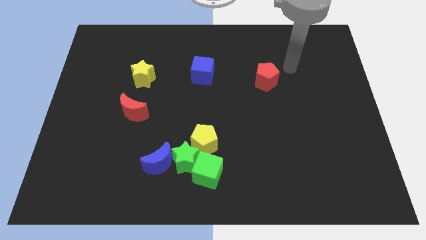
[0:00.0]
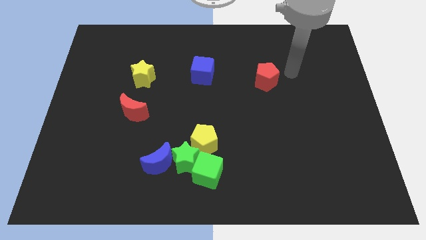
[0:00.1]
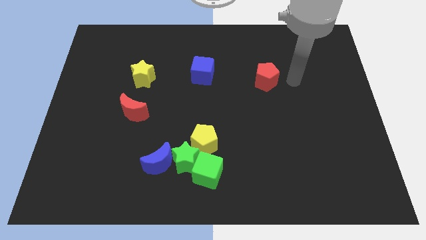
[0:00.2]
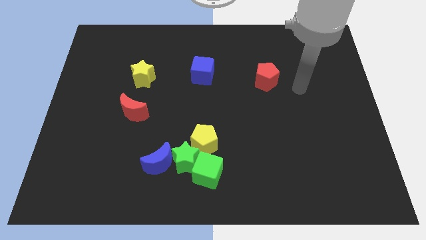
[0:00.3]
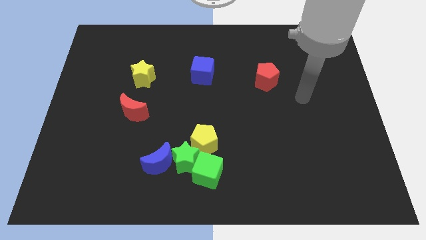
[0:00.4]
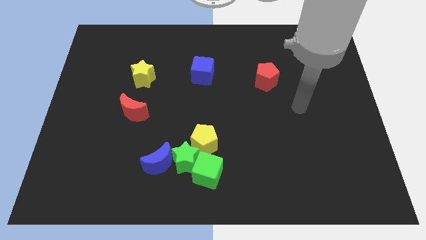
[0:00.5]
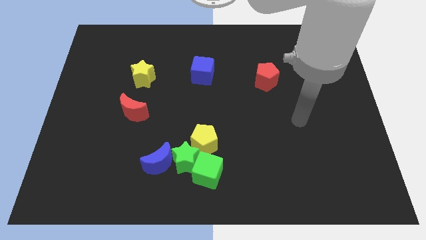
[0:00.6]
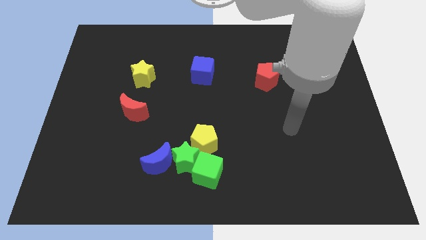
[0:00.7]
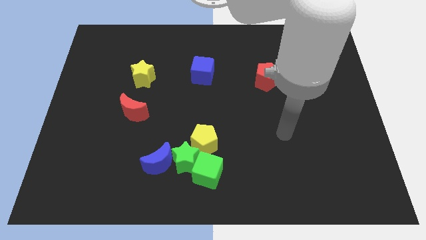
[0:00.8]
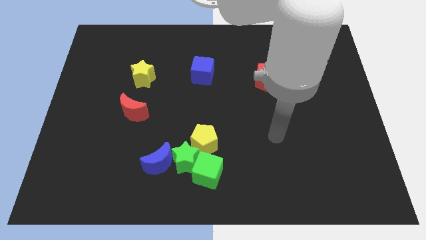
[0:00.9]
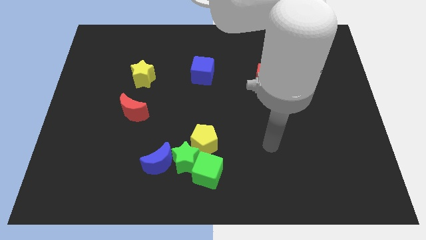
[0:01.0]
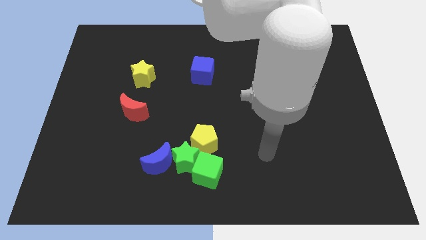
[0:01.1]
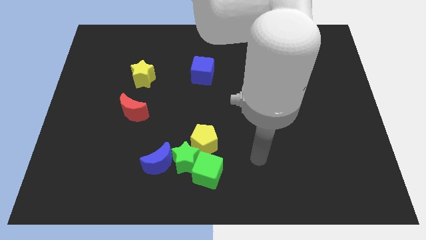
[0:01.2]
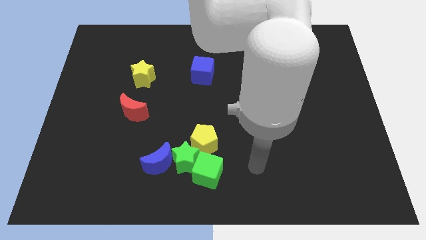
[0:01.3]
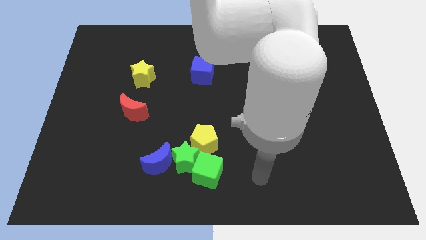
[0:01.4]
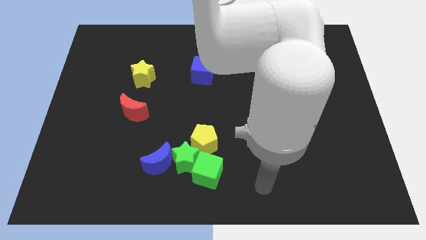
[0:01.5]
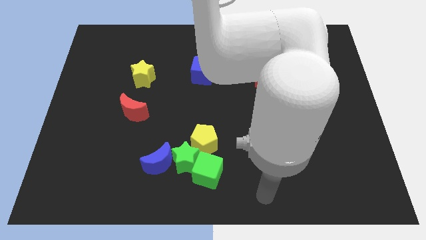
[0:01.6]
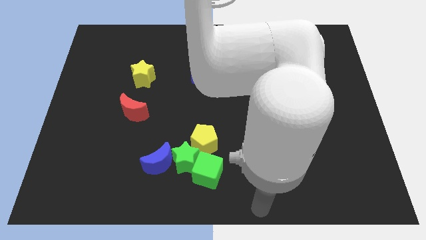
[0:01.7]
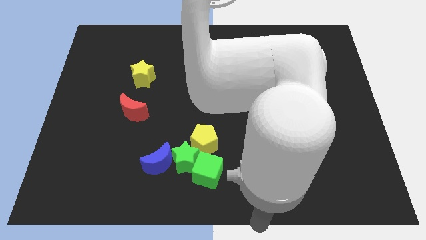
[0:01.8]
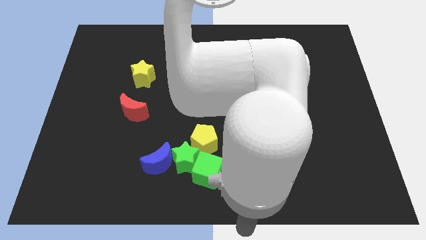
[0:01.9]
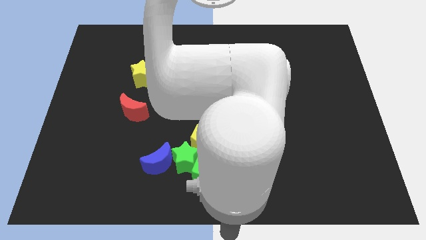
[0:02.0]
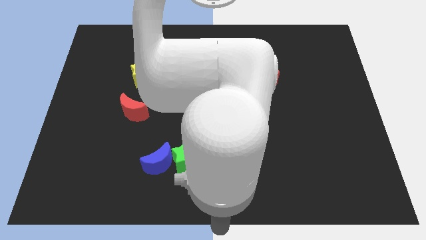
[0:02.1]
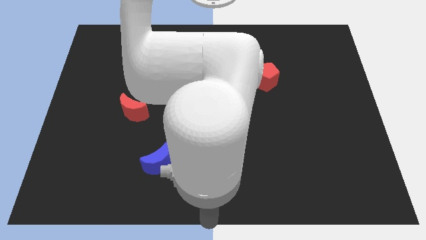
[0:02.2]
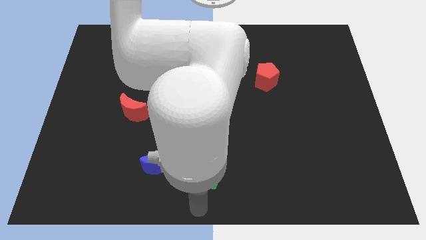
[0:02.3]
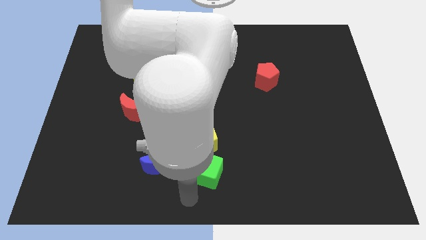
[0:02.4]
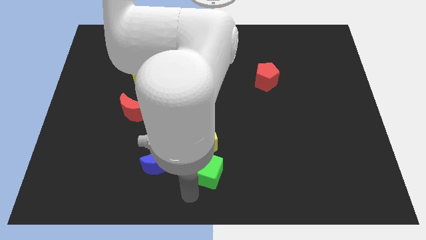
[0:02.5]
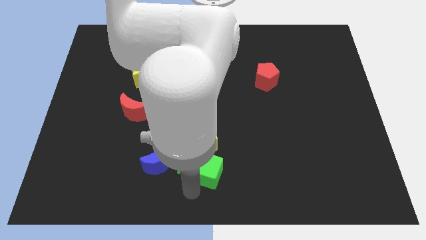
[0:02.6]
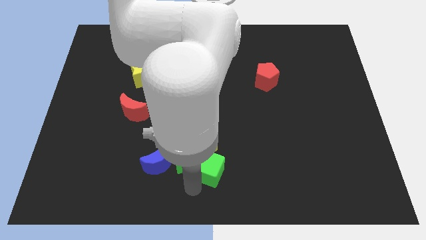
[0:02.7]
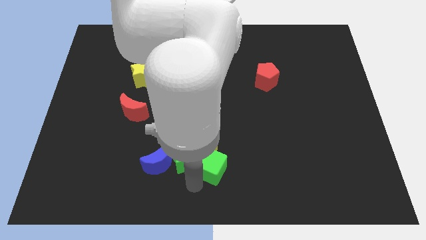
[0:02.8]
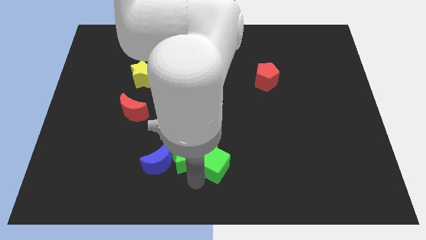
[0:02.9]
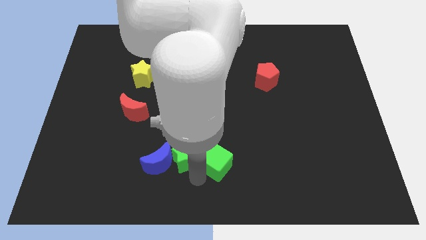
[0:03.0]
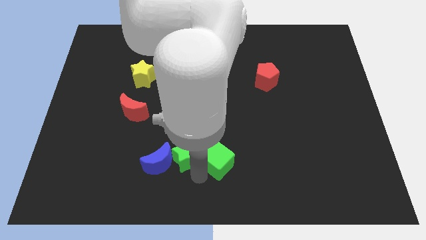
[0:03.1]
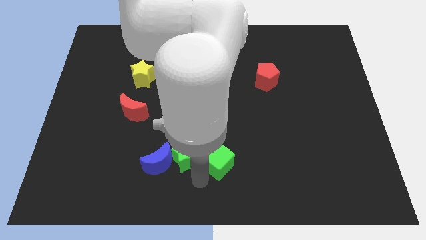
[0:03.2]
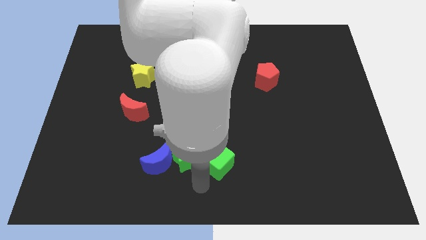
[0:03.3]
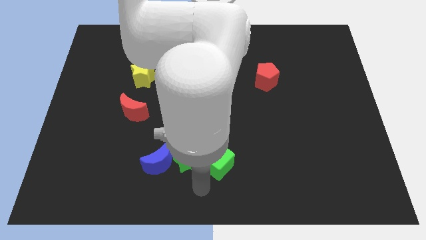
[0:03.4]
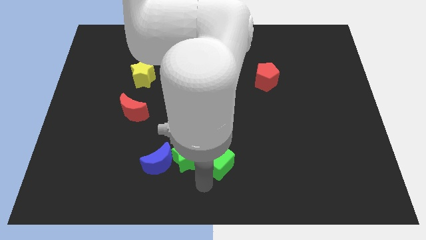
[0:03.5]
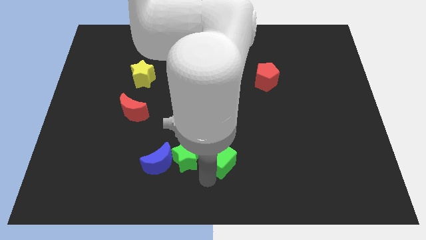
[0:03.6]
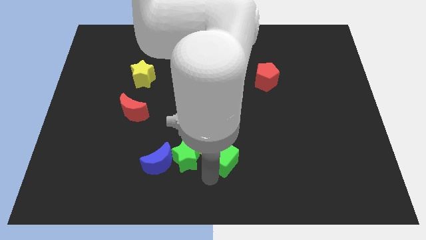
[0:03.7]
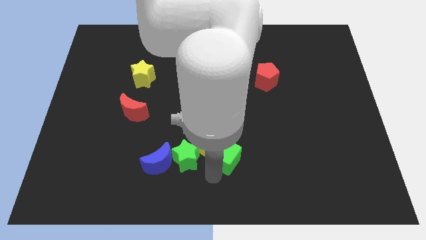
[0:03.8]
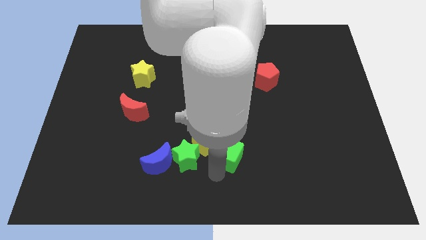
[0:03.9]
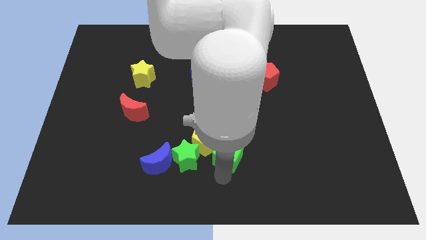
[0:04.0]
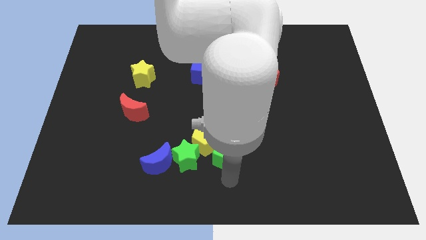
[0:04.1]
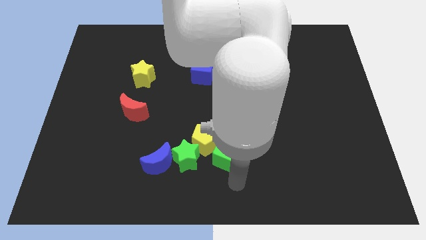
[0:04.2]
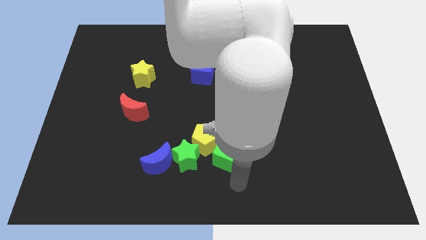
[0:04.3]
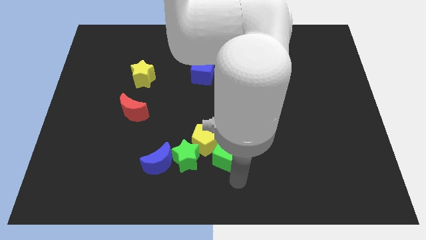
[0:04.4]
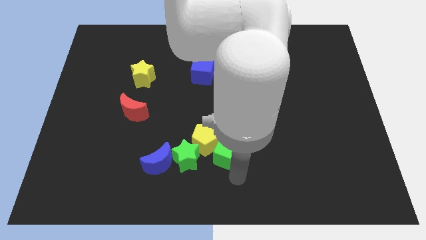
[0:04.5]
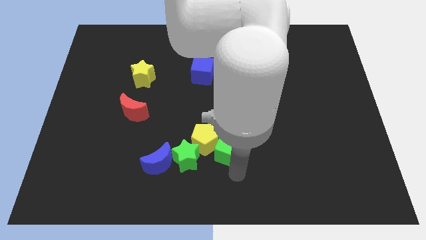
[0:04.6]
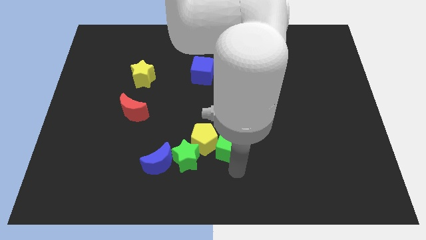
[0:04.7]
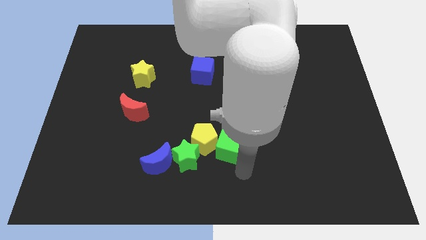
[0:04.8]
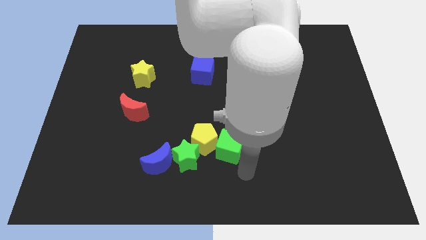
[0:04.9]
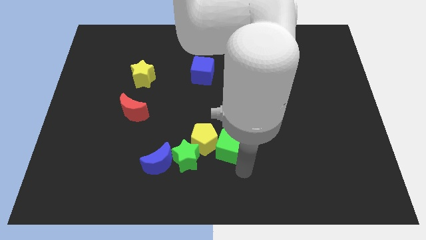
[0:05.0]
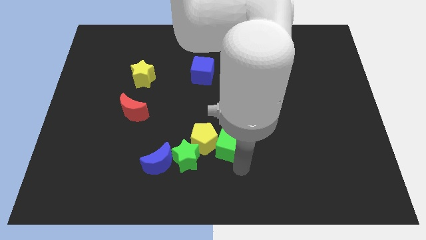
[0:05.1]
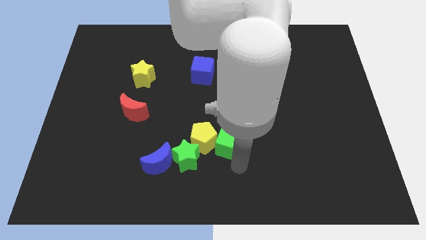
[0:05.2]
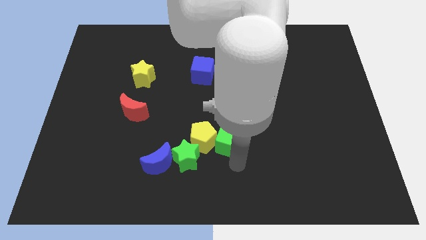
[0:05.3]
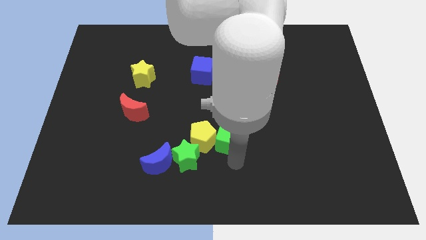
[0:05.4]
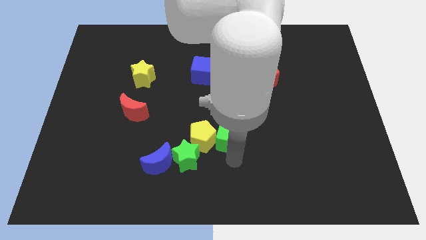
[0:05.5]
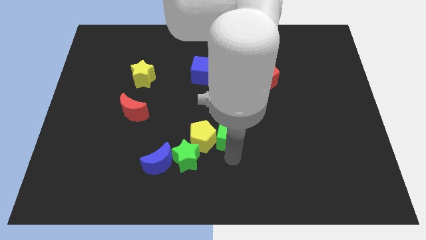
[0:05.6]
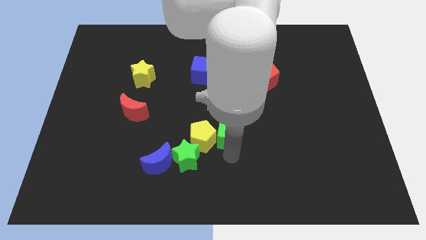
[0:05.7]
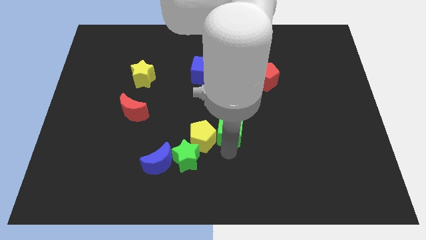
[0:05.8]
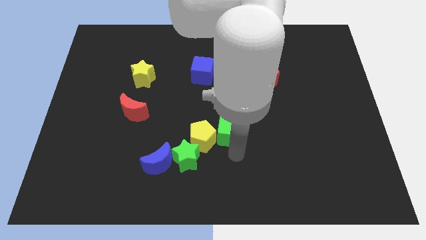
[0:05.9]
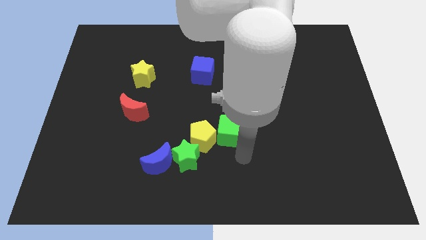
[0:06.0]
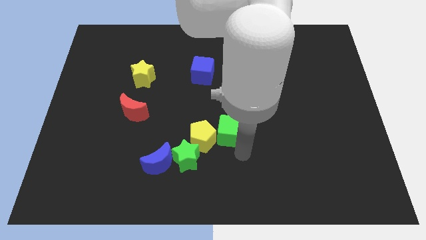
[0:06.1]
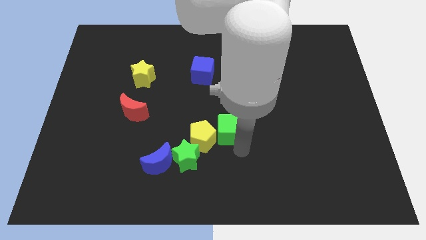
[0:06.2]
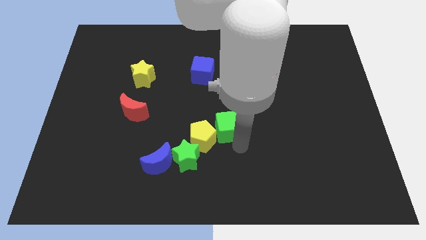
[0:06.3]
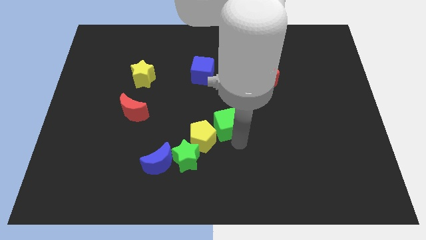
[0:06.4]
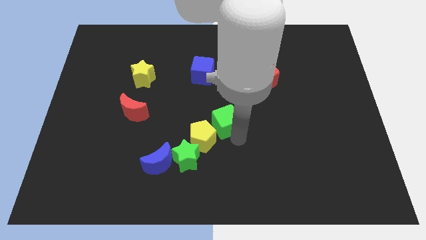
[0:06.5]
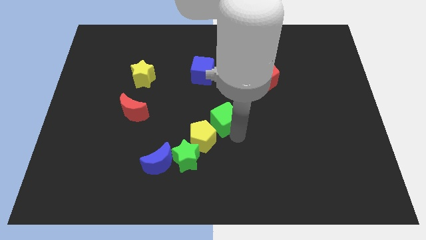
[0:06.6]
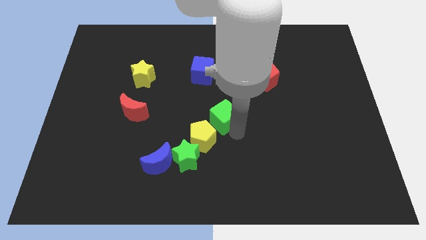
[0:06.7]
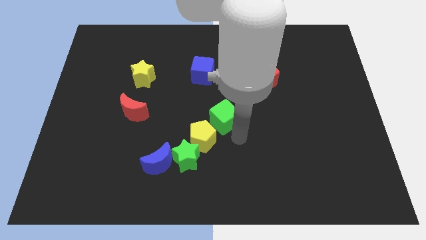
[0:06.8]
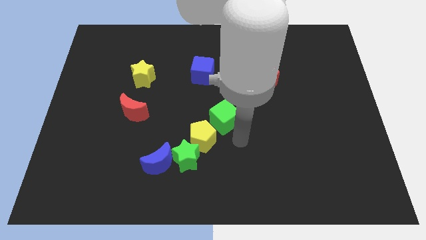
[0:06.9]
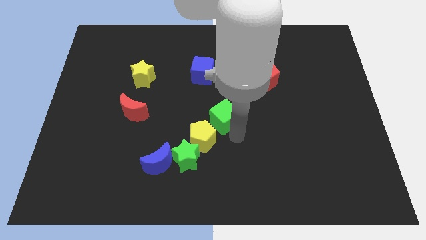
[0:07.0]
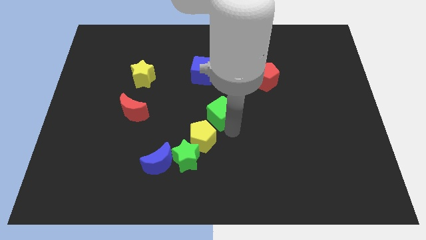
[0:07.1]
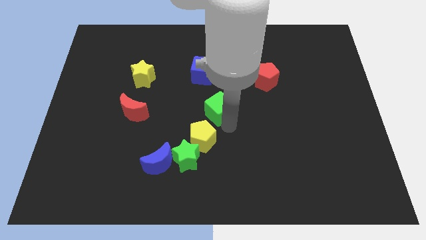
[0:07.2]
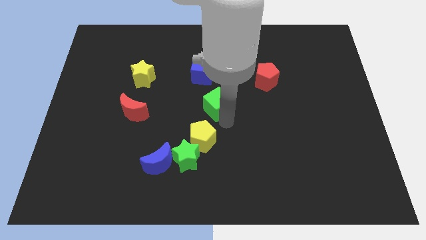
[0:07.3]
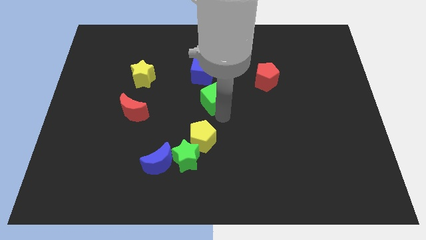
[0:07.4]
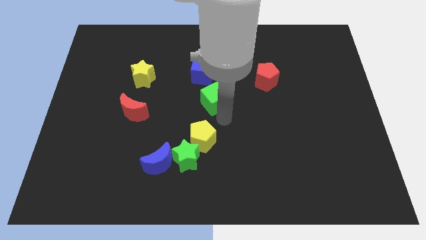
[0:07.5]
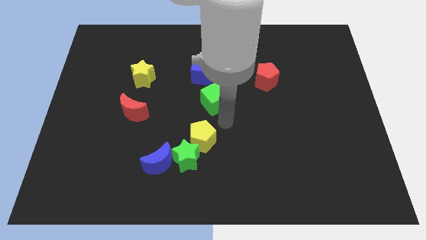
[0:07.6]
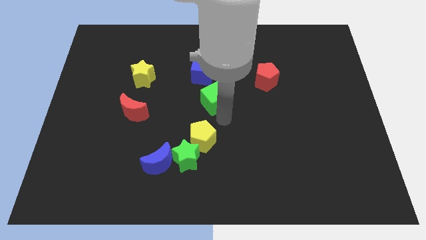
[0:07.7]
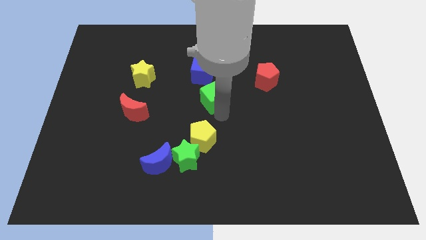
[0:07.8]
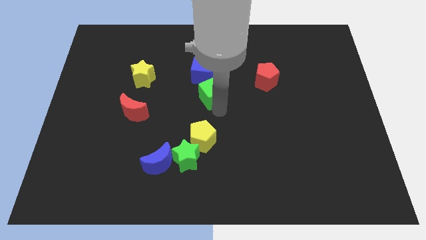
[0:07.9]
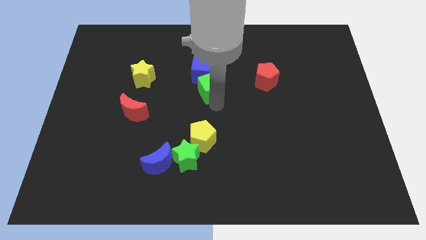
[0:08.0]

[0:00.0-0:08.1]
push the green cube towards the blue cube
